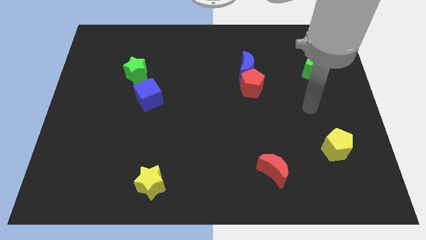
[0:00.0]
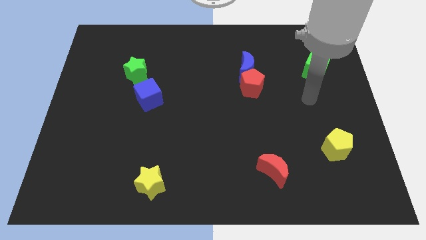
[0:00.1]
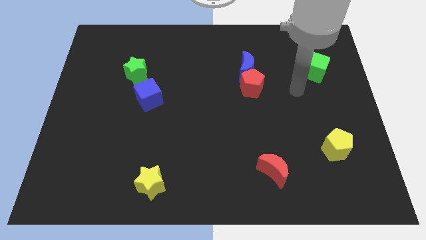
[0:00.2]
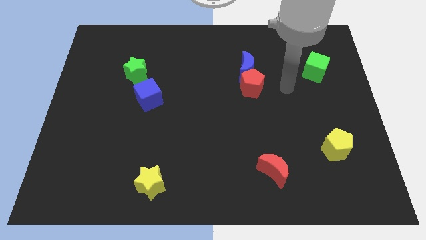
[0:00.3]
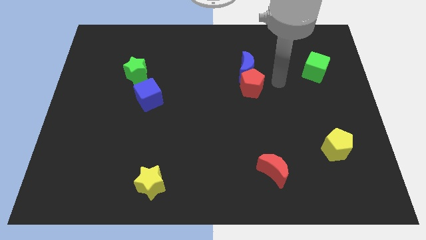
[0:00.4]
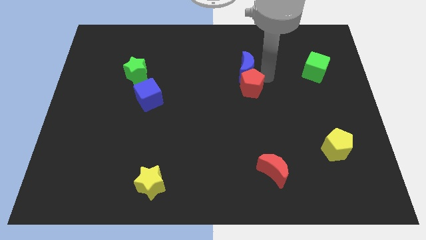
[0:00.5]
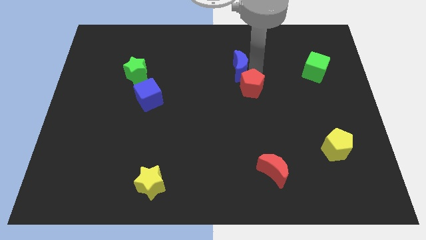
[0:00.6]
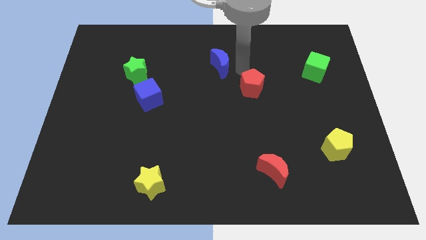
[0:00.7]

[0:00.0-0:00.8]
move the red pentagon away from the blue moon

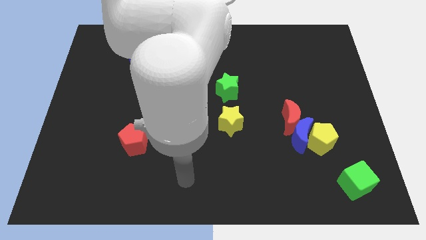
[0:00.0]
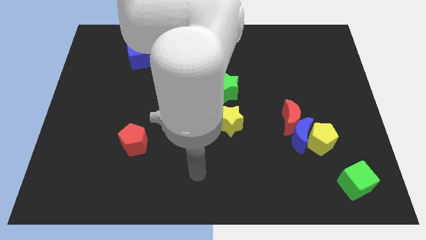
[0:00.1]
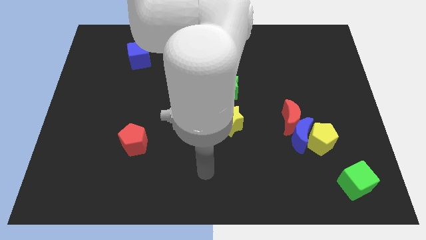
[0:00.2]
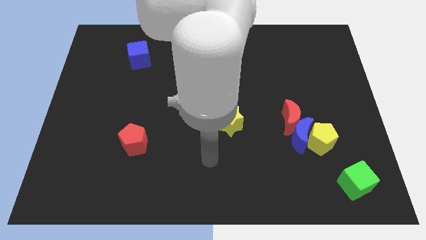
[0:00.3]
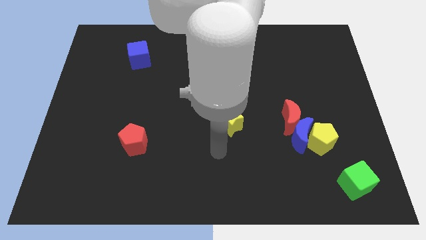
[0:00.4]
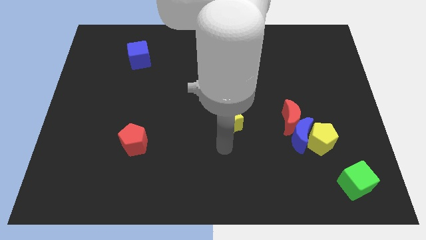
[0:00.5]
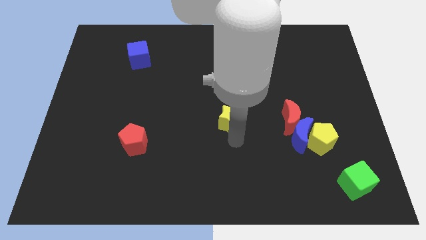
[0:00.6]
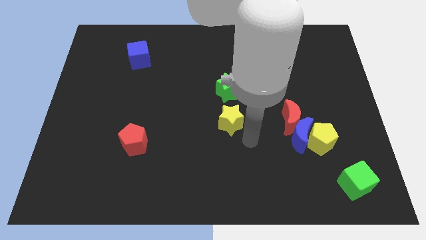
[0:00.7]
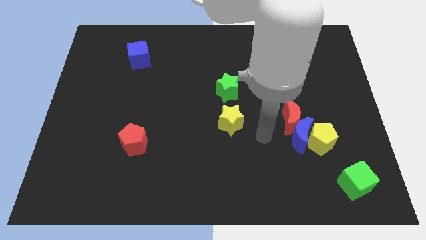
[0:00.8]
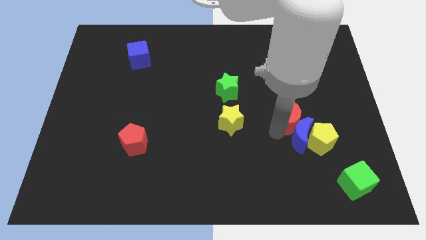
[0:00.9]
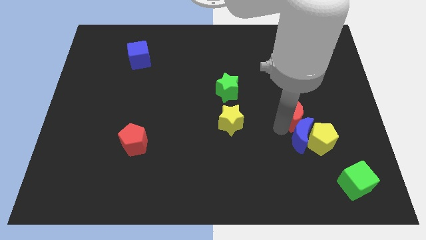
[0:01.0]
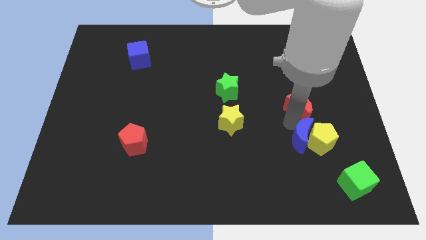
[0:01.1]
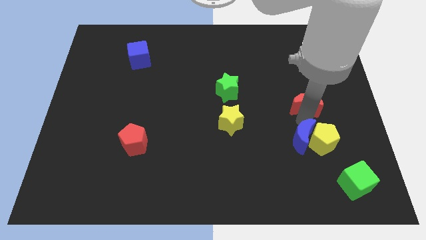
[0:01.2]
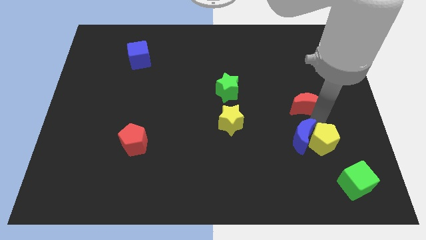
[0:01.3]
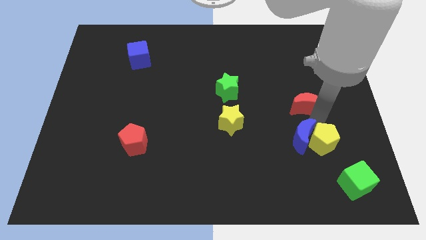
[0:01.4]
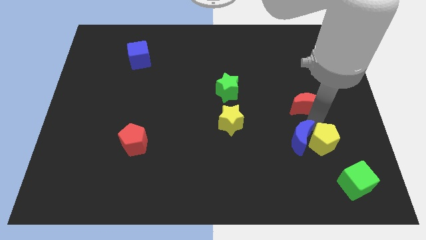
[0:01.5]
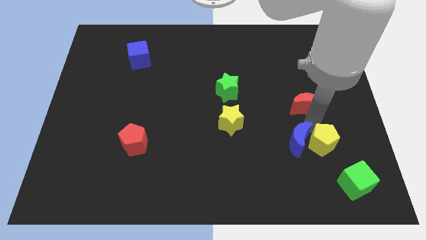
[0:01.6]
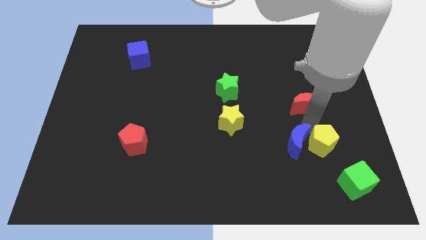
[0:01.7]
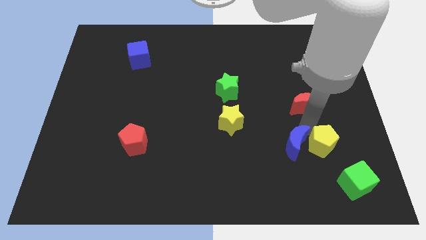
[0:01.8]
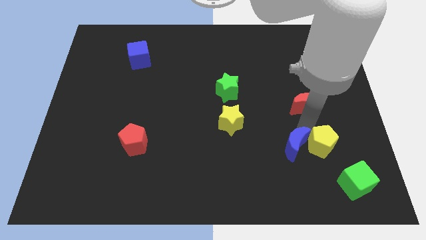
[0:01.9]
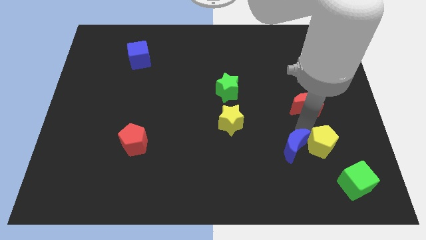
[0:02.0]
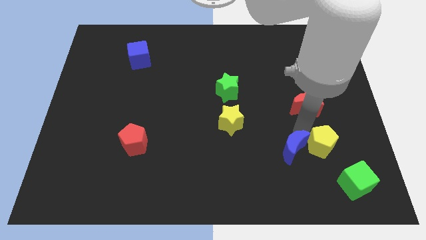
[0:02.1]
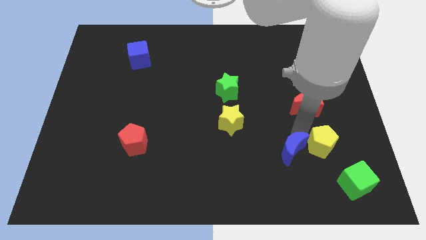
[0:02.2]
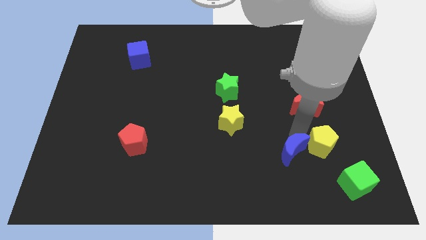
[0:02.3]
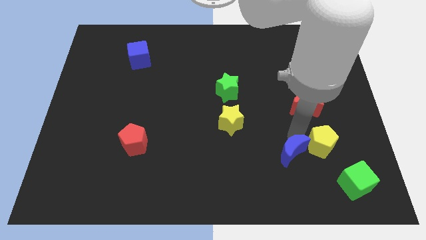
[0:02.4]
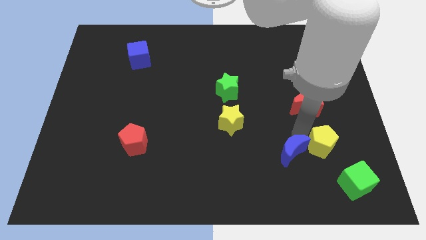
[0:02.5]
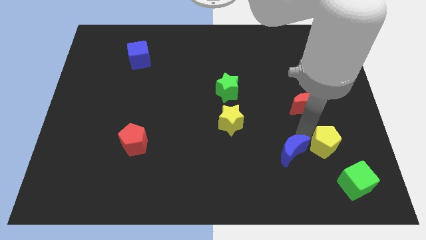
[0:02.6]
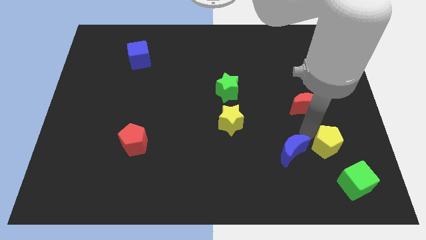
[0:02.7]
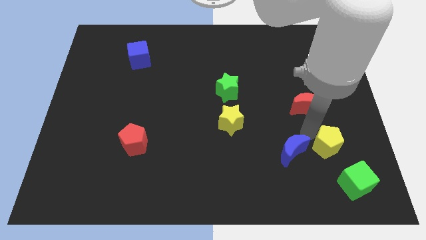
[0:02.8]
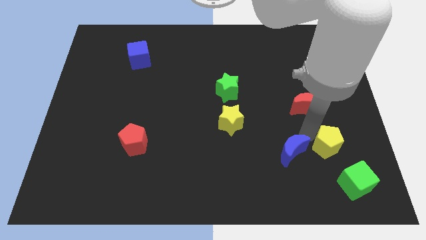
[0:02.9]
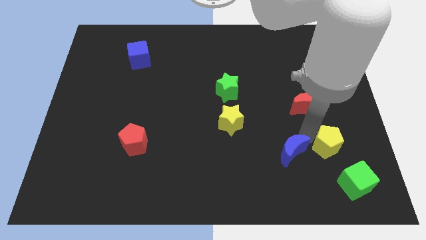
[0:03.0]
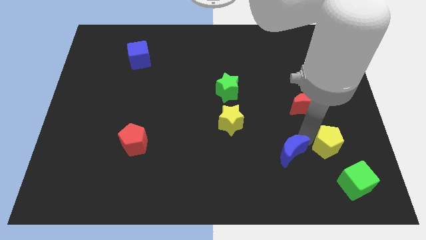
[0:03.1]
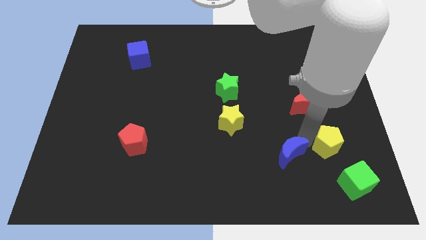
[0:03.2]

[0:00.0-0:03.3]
pull the blue moon apart from the yellow pentagon and red moon

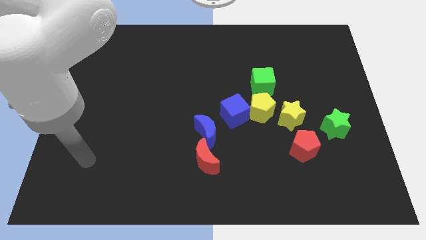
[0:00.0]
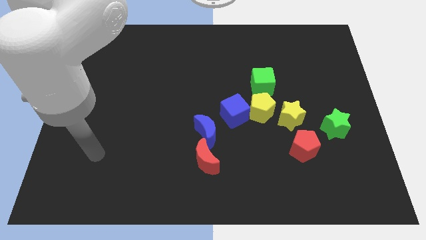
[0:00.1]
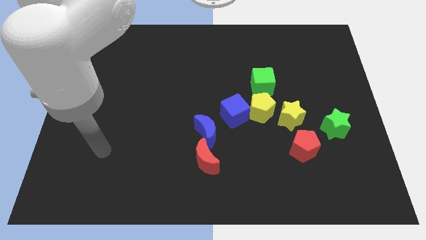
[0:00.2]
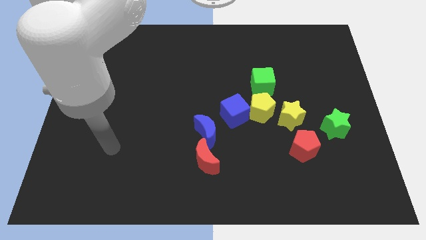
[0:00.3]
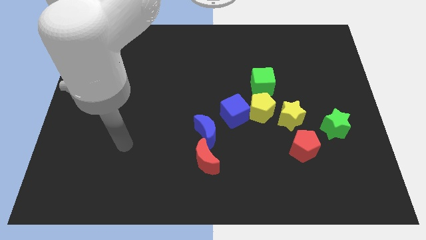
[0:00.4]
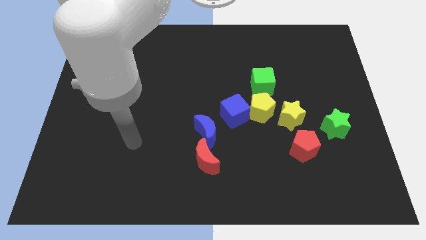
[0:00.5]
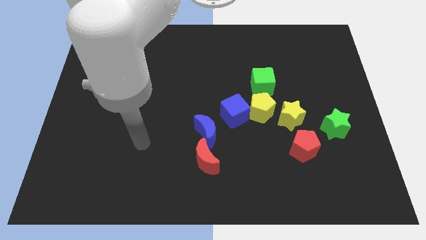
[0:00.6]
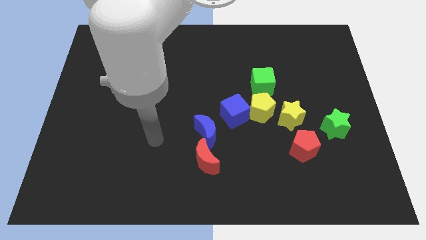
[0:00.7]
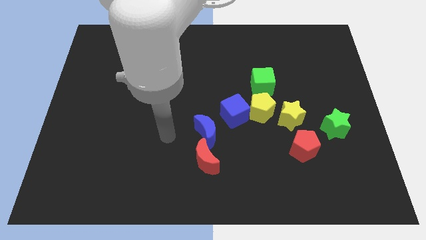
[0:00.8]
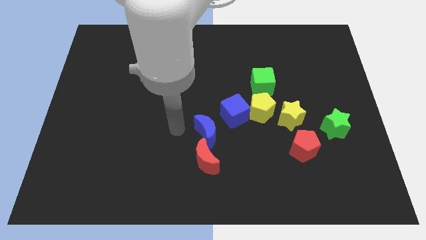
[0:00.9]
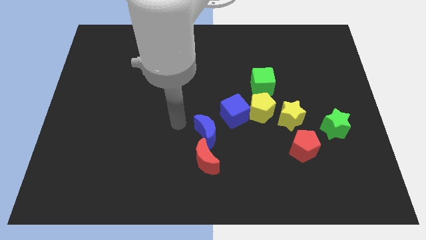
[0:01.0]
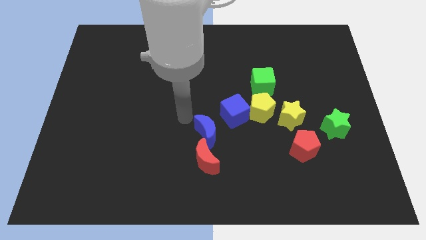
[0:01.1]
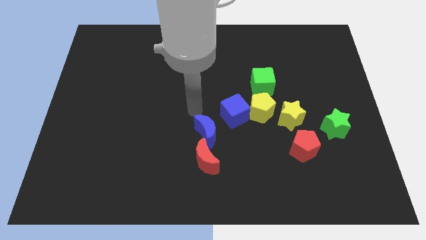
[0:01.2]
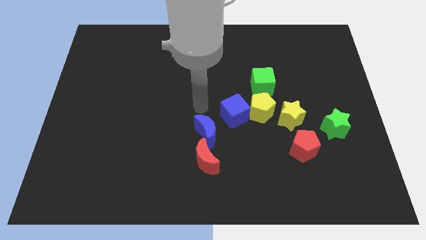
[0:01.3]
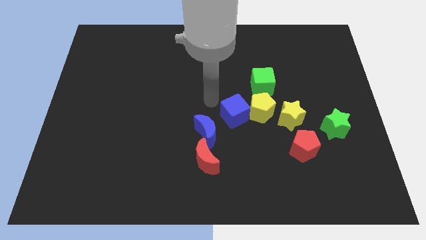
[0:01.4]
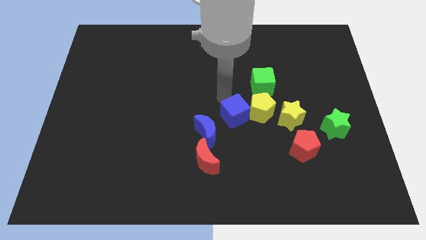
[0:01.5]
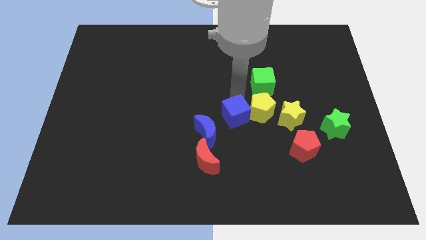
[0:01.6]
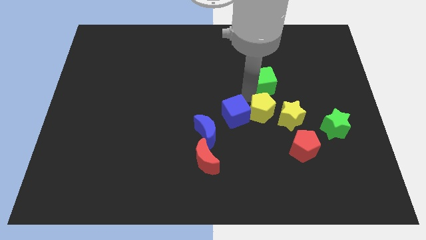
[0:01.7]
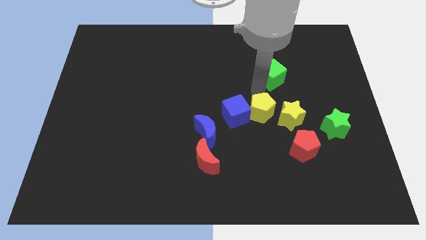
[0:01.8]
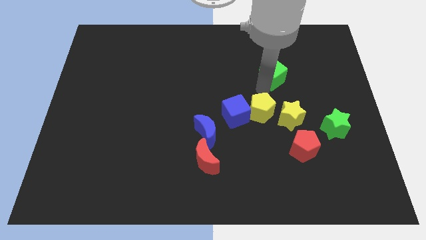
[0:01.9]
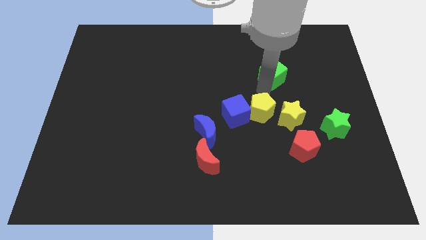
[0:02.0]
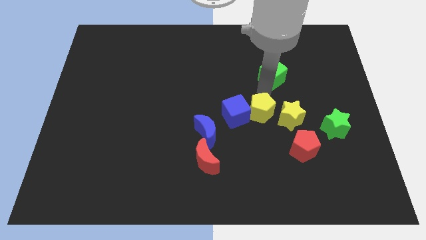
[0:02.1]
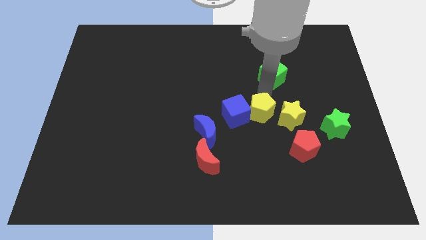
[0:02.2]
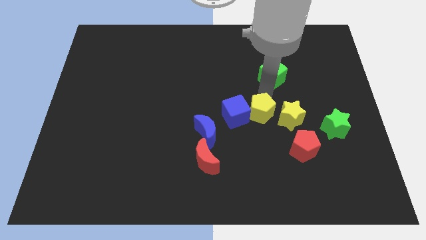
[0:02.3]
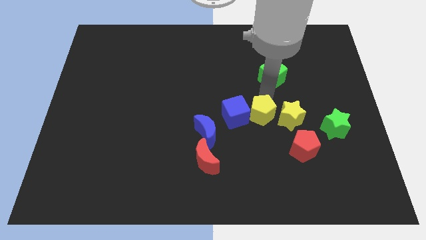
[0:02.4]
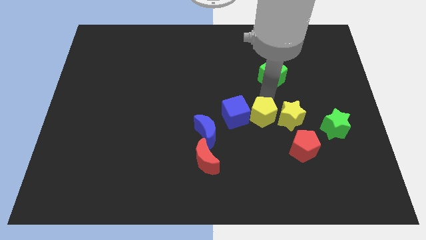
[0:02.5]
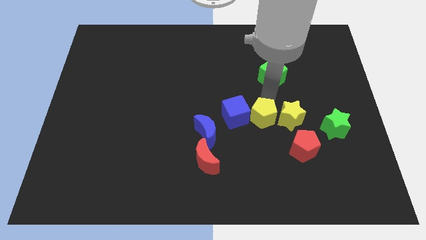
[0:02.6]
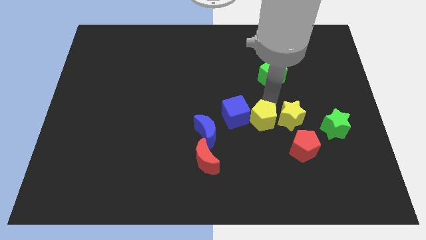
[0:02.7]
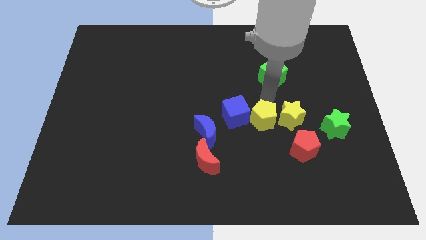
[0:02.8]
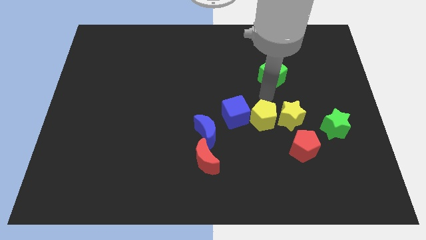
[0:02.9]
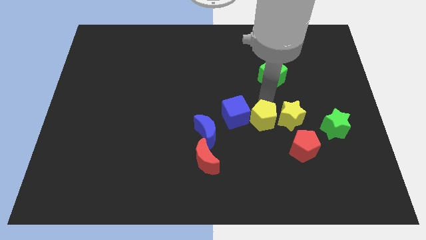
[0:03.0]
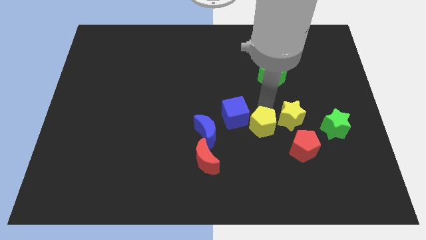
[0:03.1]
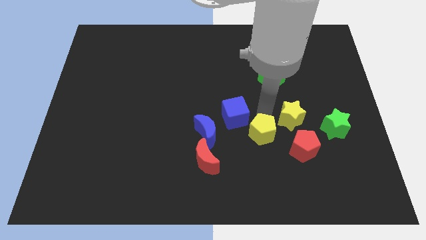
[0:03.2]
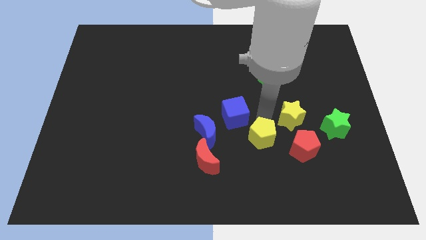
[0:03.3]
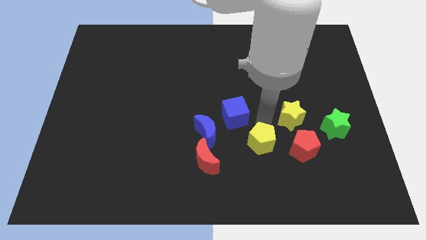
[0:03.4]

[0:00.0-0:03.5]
move the yellow pentagon away from the clump

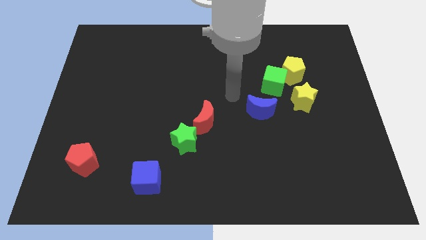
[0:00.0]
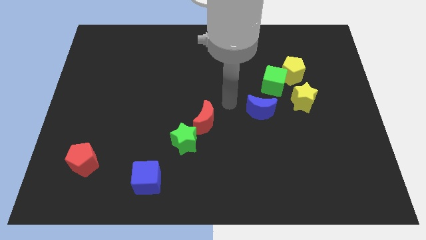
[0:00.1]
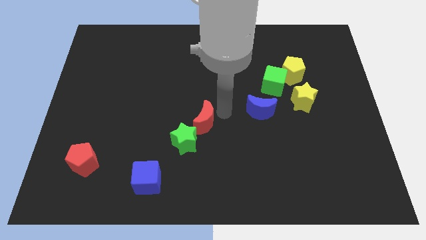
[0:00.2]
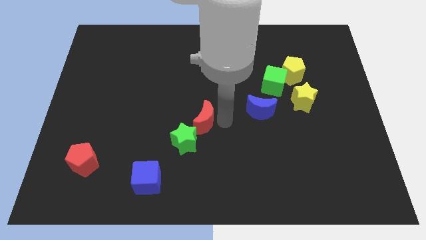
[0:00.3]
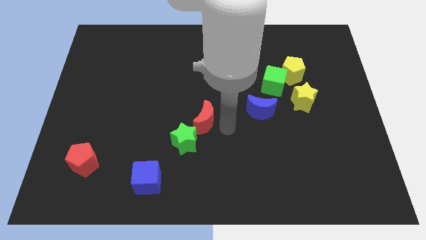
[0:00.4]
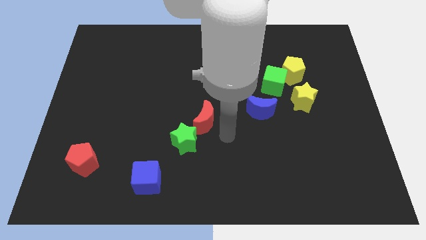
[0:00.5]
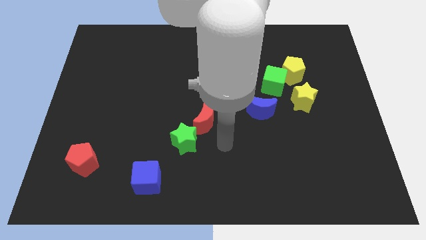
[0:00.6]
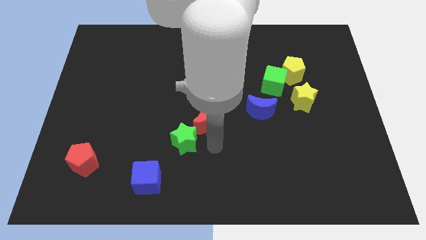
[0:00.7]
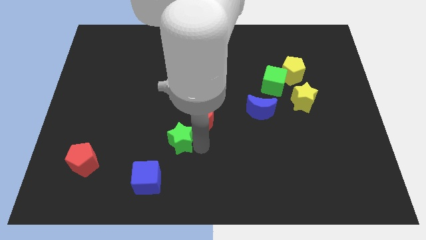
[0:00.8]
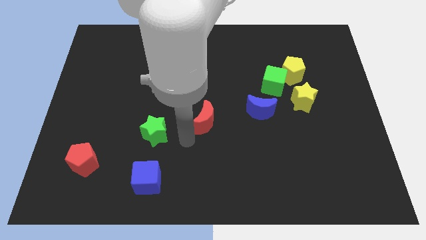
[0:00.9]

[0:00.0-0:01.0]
move the red moon away from the green star

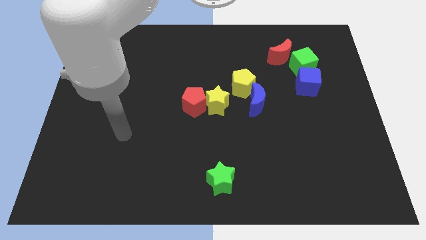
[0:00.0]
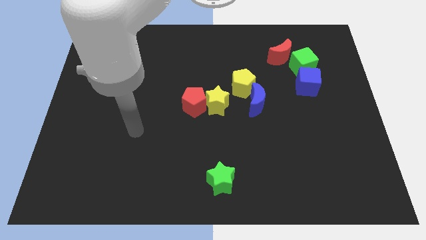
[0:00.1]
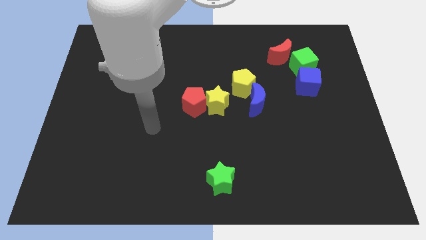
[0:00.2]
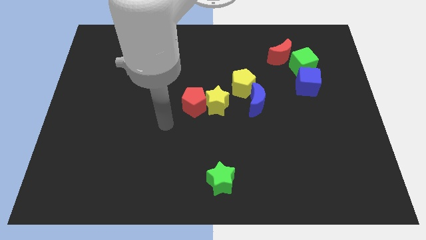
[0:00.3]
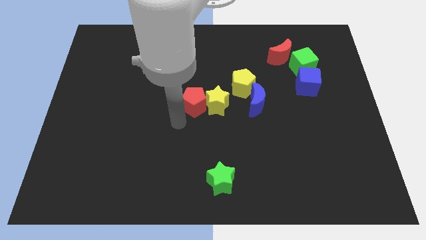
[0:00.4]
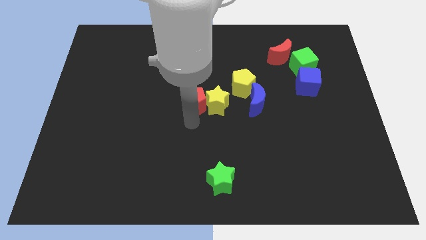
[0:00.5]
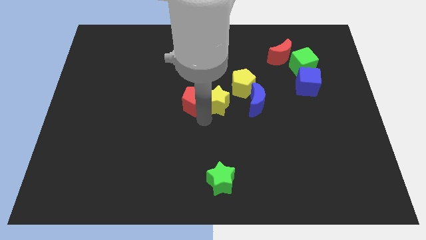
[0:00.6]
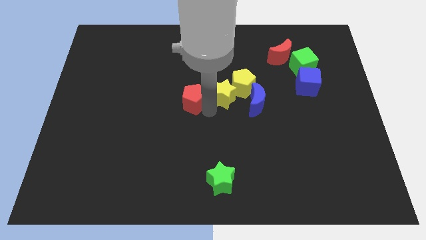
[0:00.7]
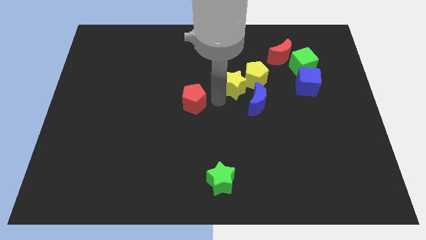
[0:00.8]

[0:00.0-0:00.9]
separate the red pentagon from the yellow star
